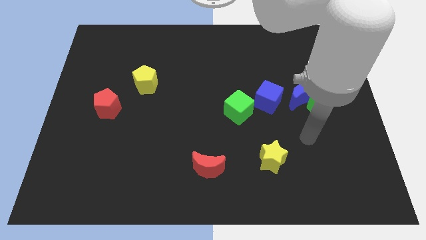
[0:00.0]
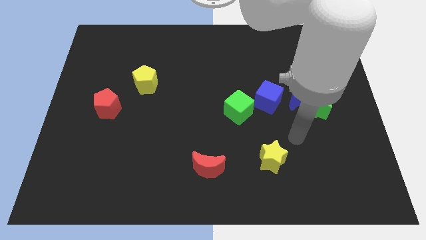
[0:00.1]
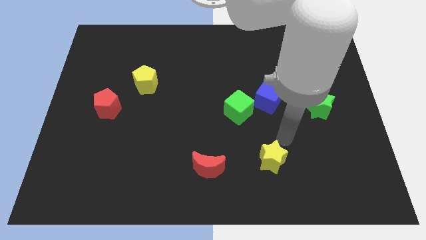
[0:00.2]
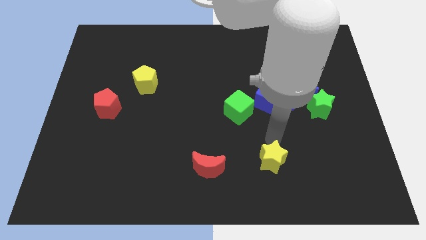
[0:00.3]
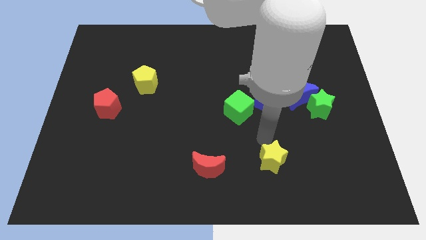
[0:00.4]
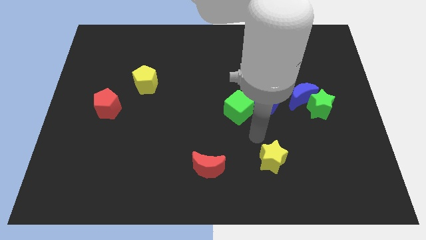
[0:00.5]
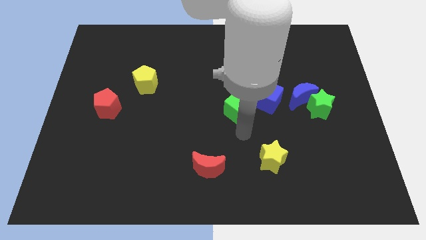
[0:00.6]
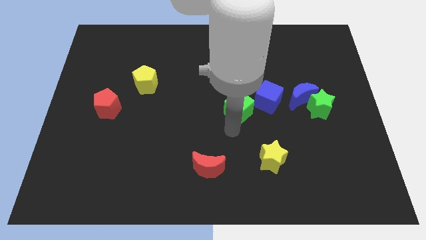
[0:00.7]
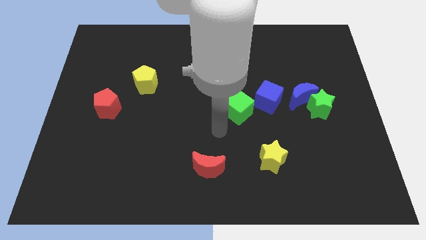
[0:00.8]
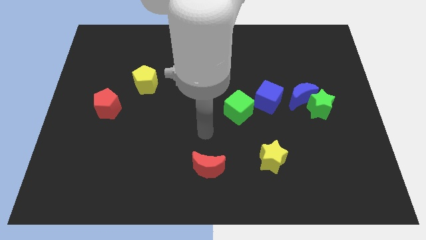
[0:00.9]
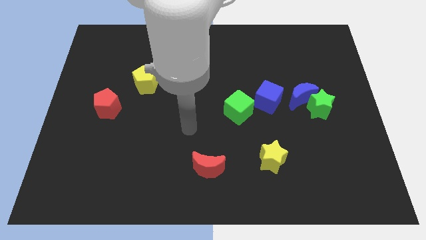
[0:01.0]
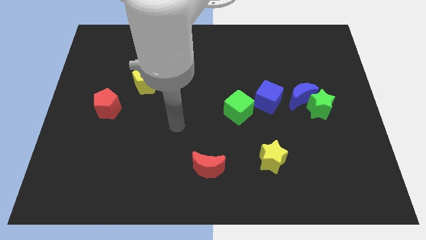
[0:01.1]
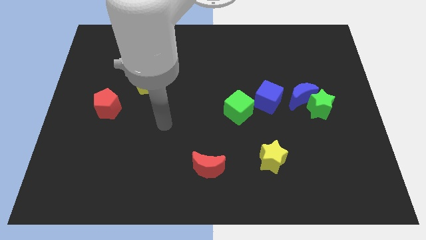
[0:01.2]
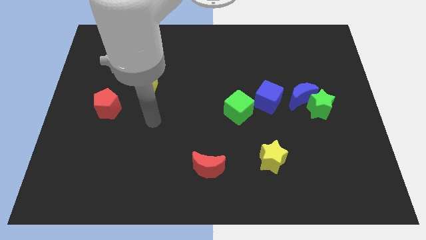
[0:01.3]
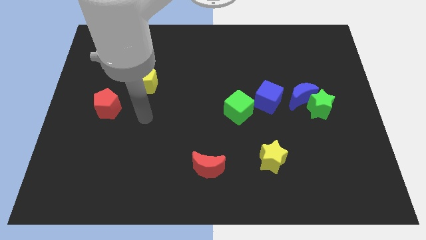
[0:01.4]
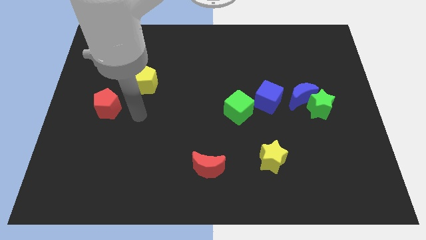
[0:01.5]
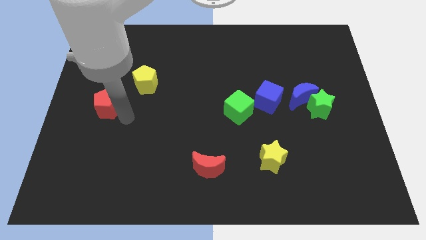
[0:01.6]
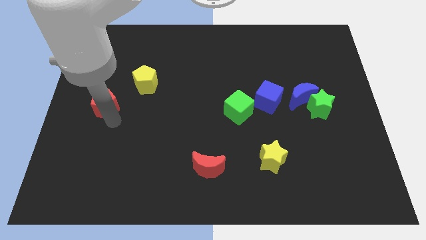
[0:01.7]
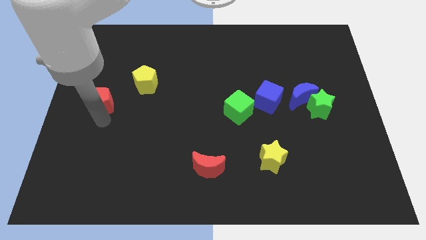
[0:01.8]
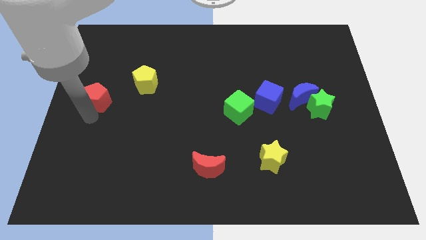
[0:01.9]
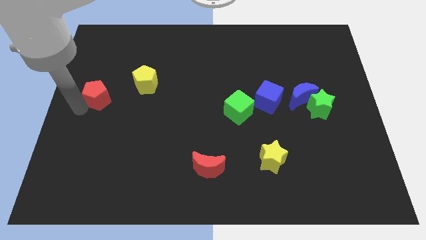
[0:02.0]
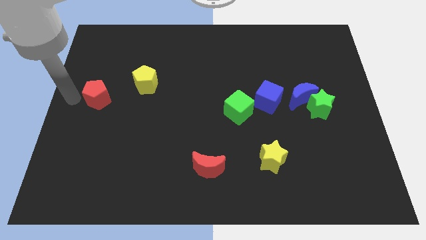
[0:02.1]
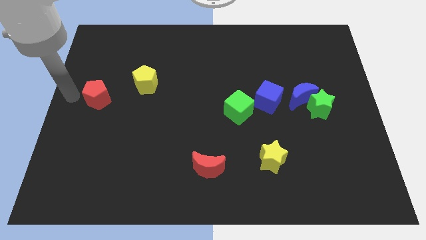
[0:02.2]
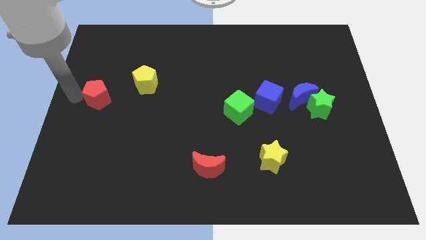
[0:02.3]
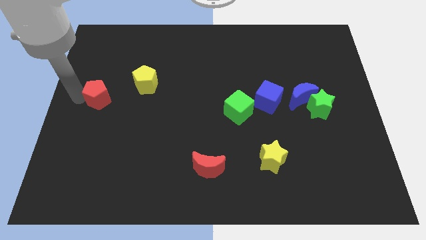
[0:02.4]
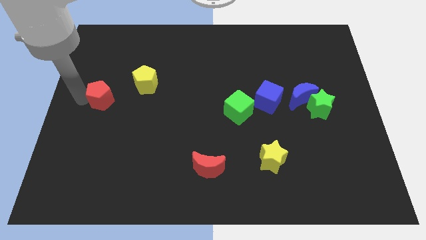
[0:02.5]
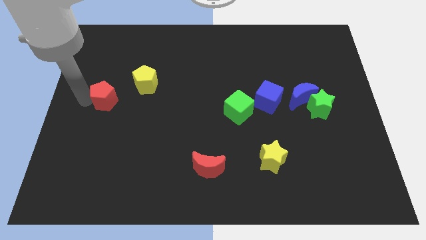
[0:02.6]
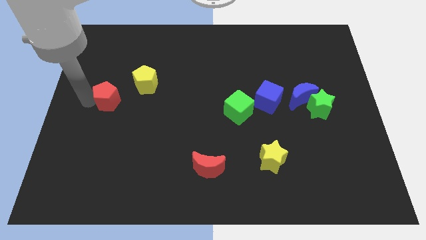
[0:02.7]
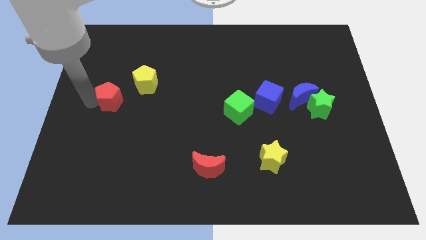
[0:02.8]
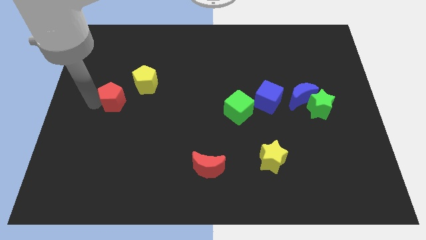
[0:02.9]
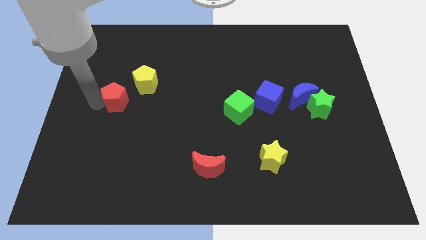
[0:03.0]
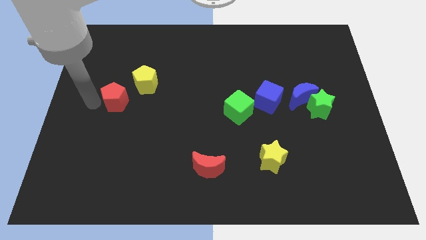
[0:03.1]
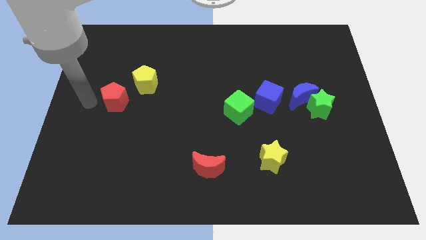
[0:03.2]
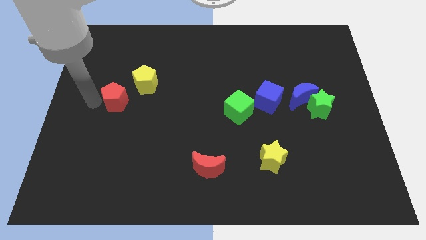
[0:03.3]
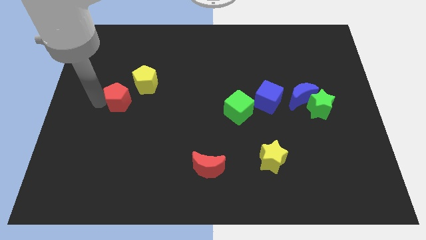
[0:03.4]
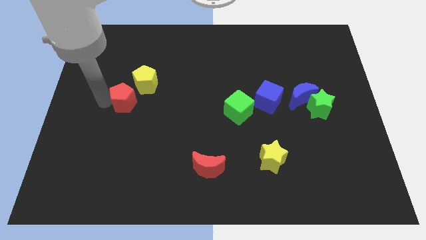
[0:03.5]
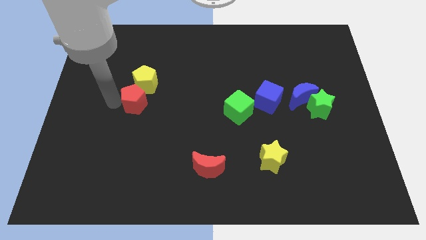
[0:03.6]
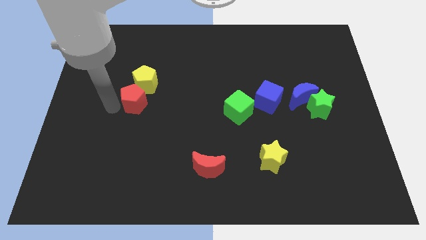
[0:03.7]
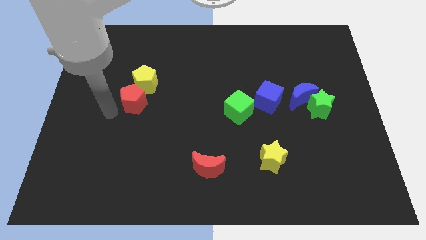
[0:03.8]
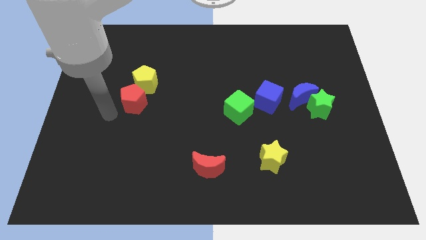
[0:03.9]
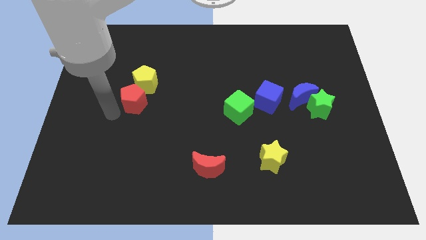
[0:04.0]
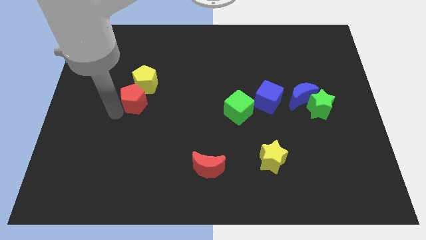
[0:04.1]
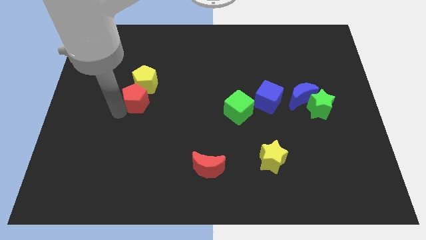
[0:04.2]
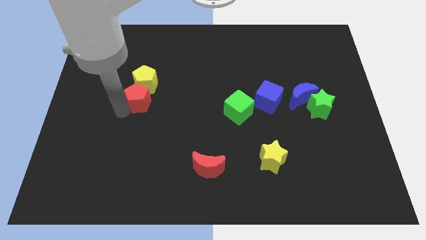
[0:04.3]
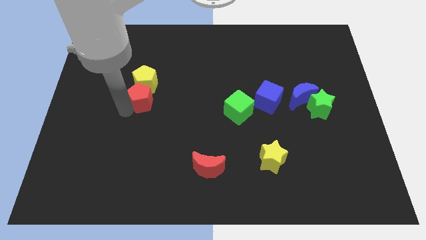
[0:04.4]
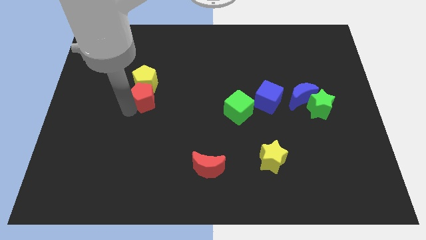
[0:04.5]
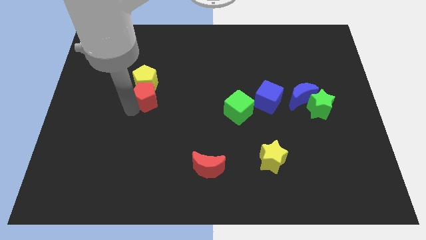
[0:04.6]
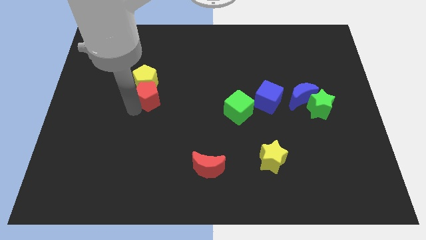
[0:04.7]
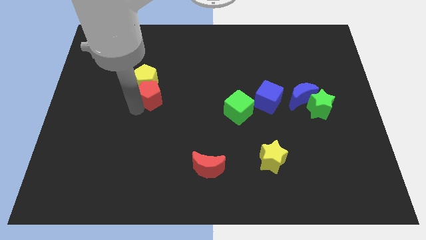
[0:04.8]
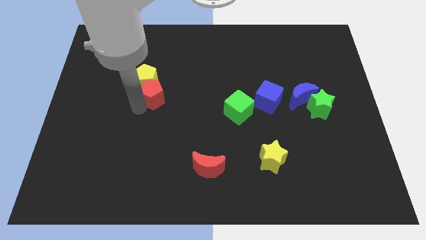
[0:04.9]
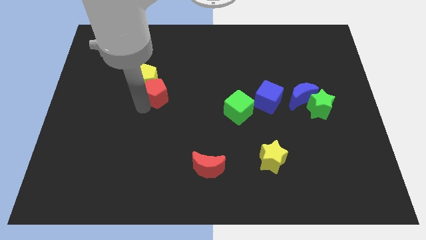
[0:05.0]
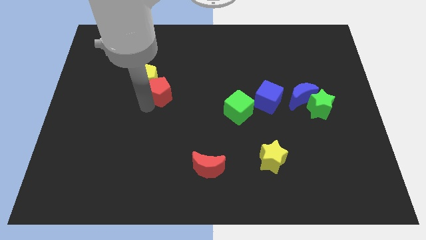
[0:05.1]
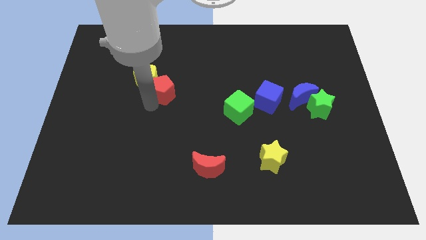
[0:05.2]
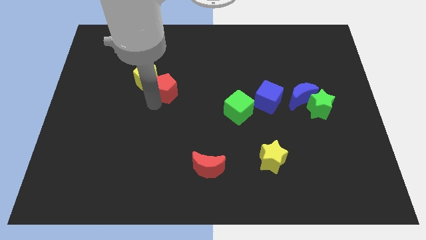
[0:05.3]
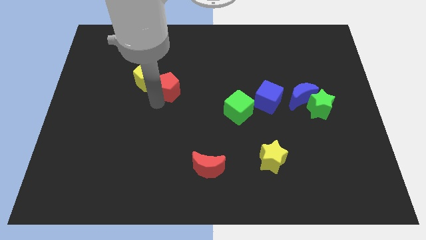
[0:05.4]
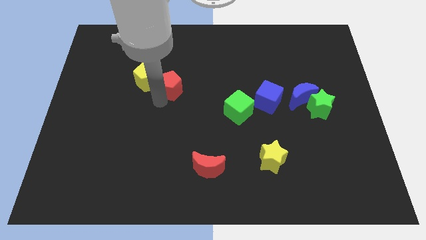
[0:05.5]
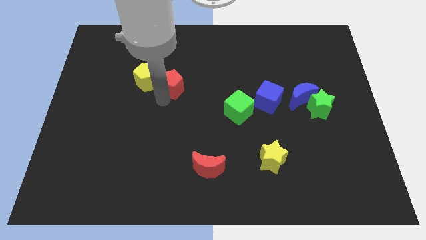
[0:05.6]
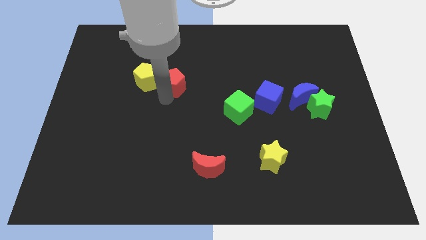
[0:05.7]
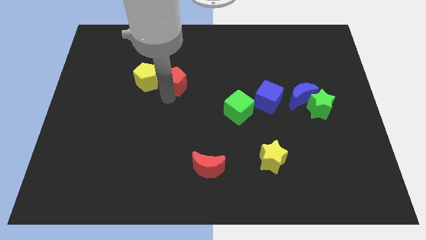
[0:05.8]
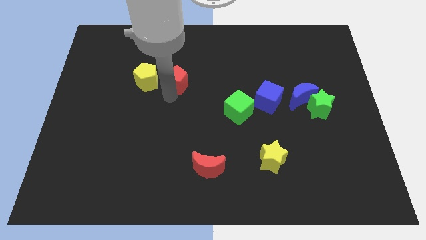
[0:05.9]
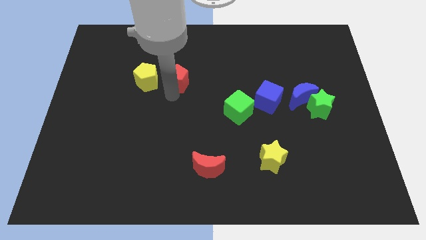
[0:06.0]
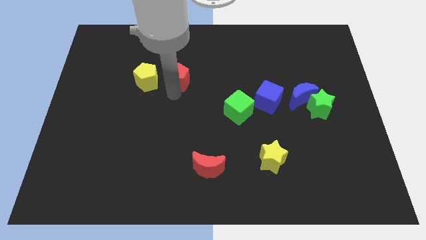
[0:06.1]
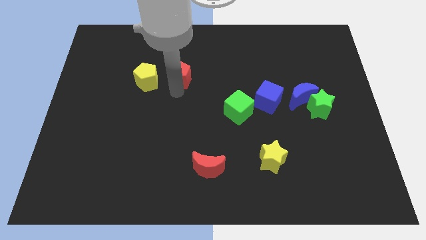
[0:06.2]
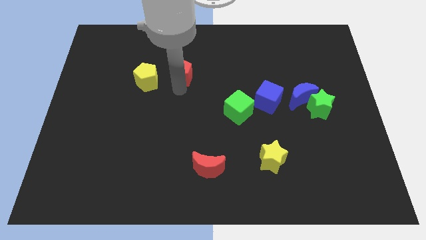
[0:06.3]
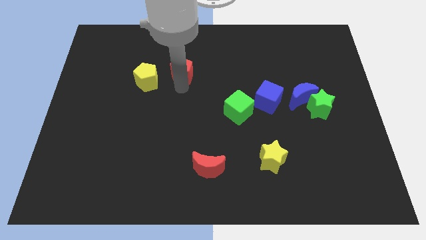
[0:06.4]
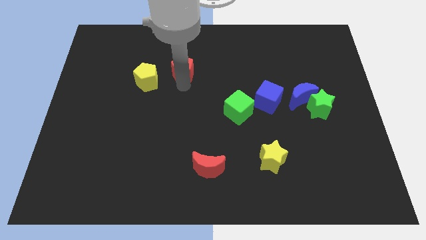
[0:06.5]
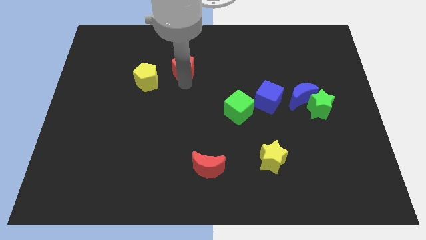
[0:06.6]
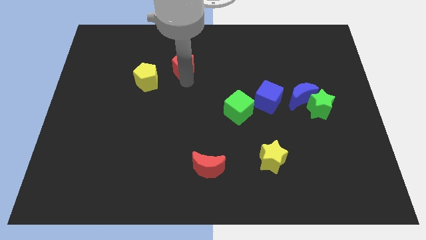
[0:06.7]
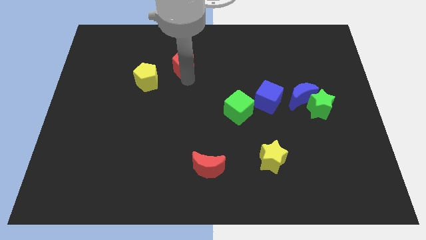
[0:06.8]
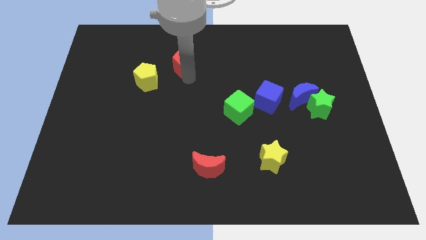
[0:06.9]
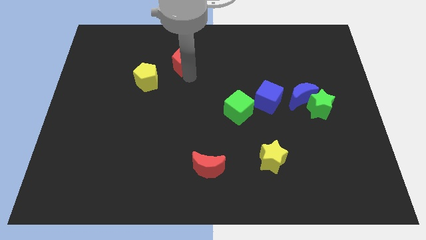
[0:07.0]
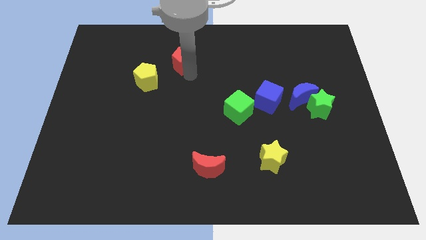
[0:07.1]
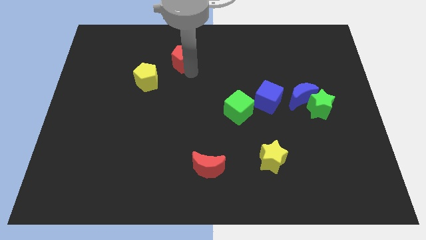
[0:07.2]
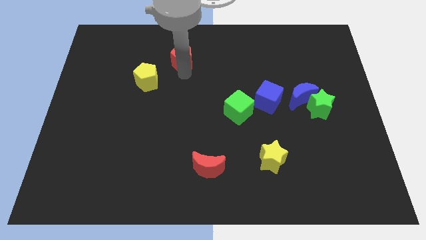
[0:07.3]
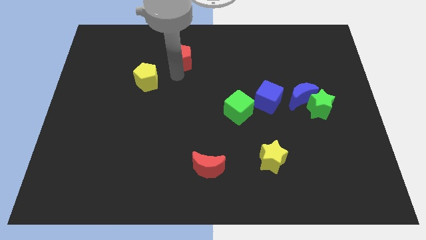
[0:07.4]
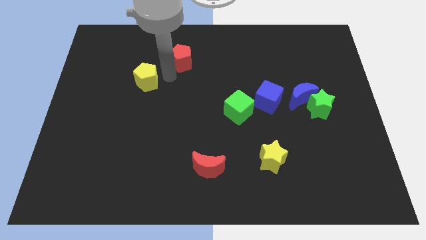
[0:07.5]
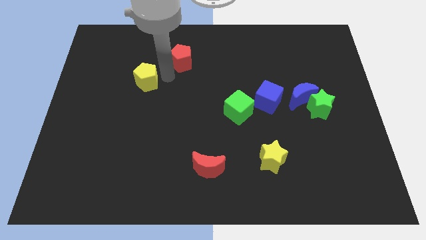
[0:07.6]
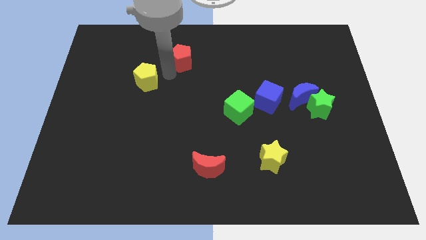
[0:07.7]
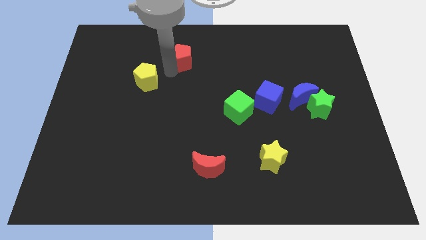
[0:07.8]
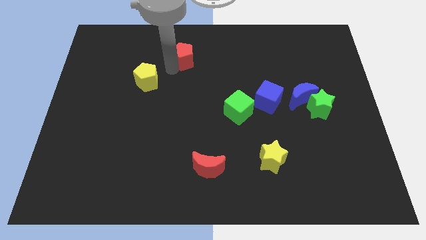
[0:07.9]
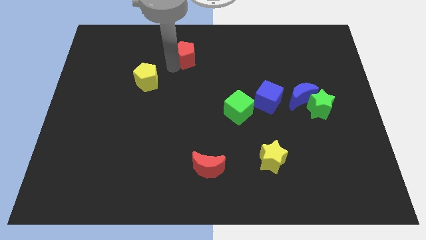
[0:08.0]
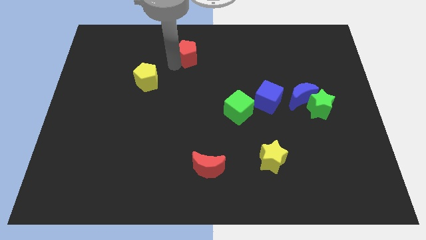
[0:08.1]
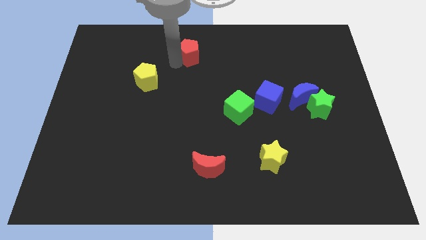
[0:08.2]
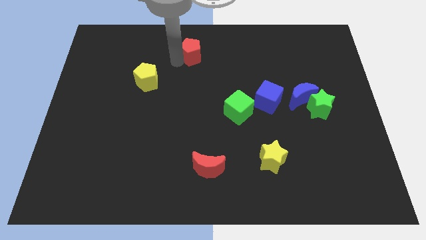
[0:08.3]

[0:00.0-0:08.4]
slide the red pentagon to the top
